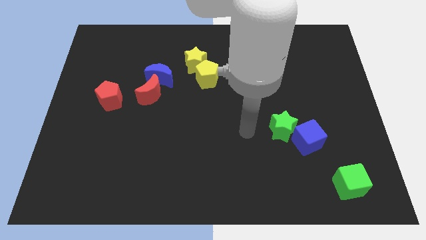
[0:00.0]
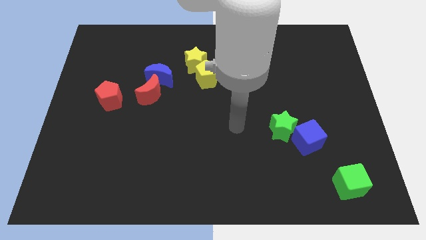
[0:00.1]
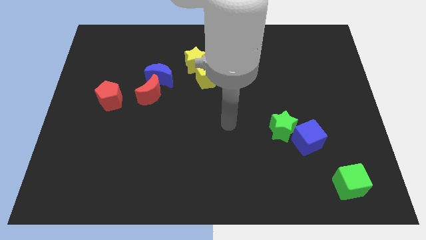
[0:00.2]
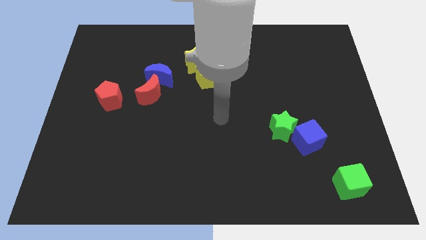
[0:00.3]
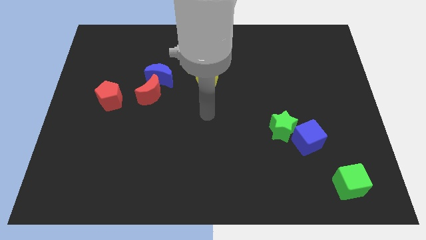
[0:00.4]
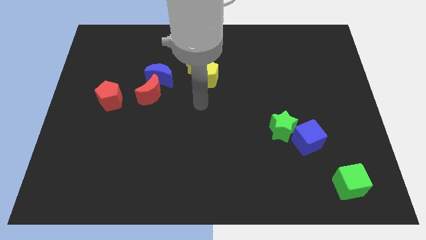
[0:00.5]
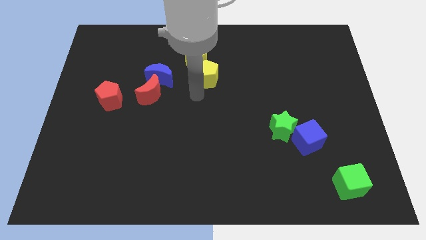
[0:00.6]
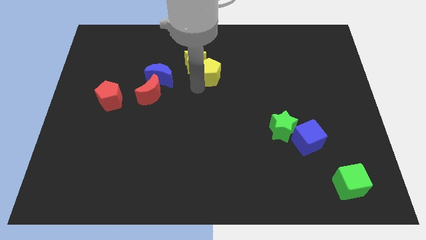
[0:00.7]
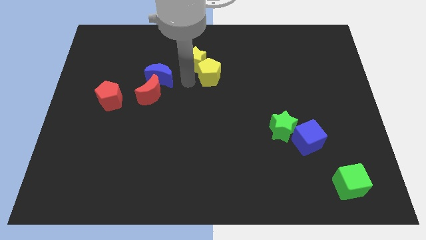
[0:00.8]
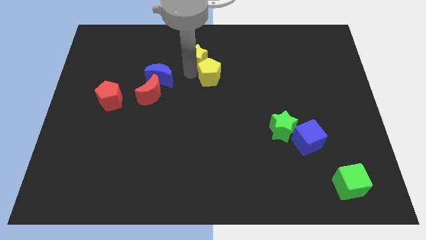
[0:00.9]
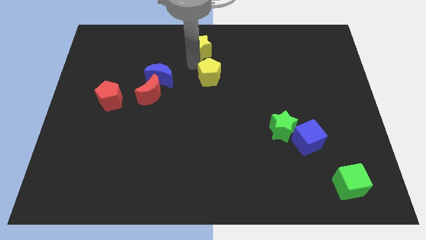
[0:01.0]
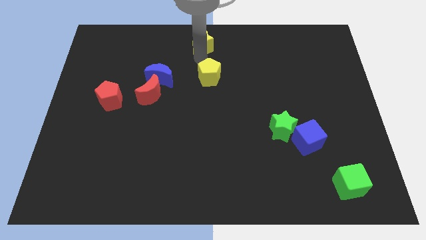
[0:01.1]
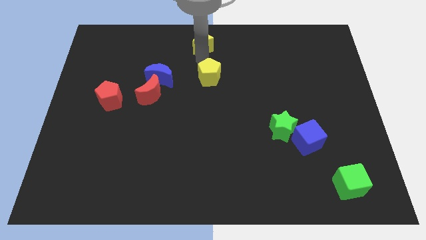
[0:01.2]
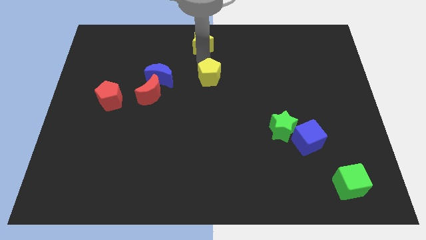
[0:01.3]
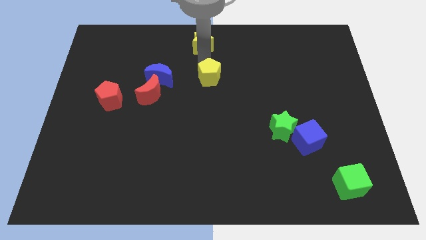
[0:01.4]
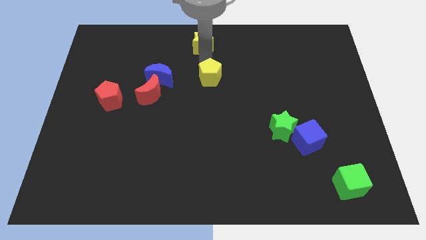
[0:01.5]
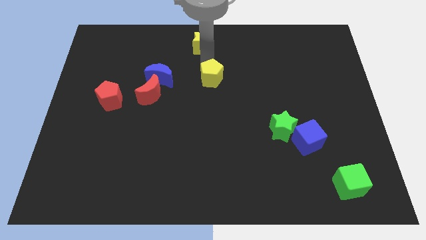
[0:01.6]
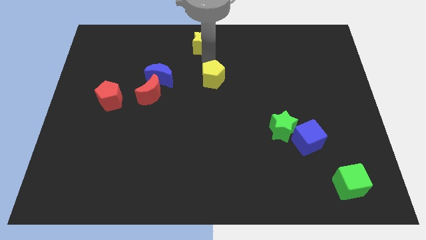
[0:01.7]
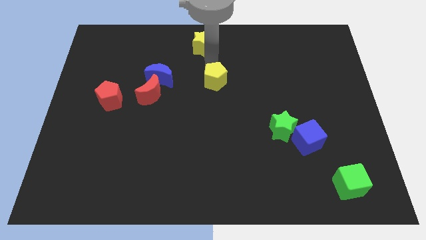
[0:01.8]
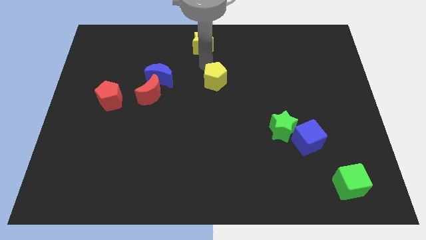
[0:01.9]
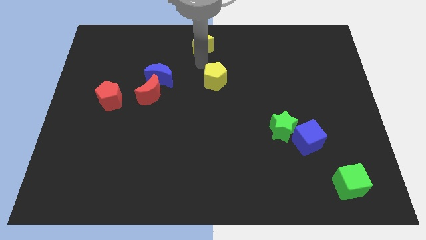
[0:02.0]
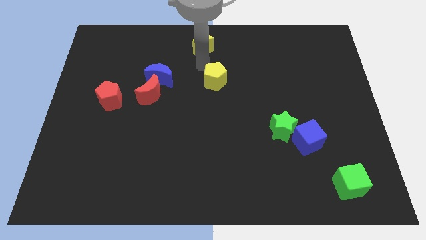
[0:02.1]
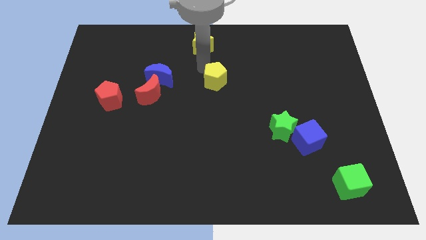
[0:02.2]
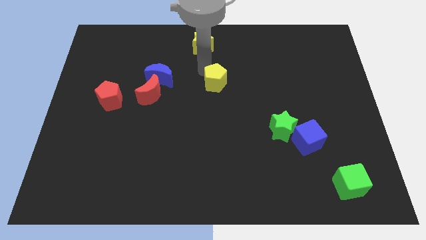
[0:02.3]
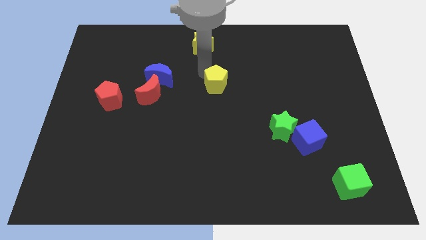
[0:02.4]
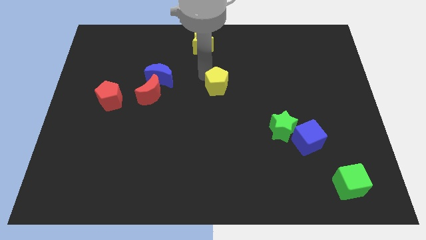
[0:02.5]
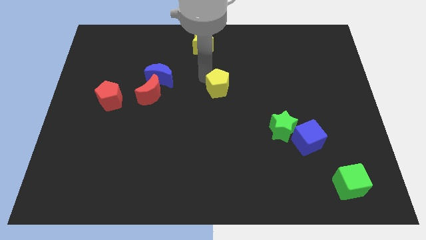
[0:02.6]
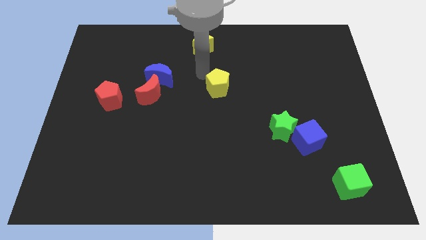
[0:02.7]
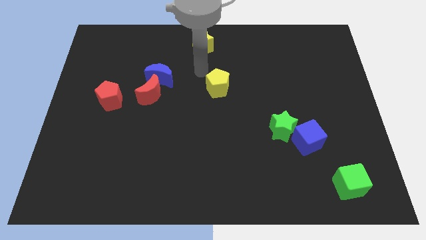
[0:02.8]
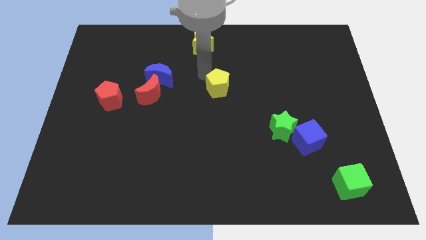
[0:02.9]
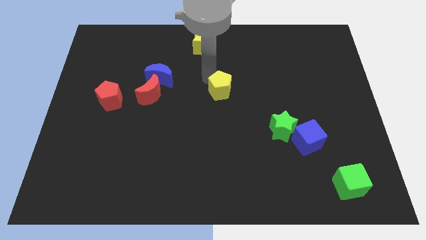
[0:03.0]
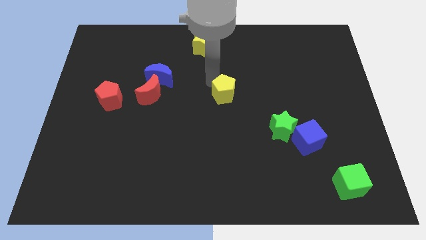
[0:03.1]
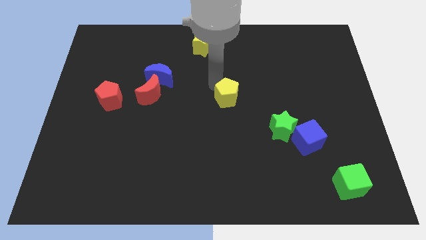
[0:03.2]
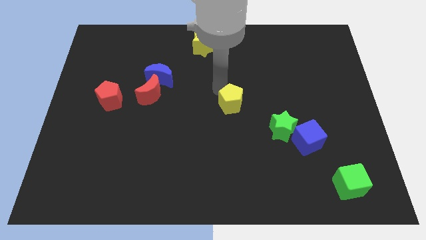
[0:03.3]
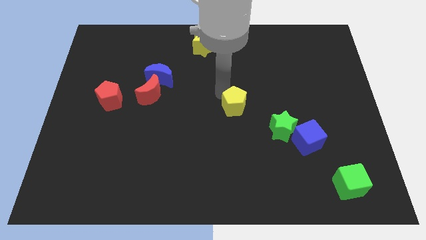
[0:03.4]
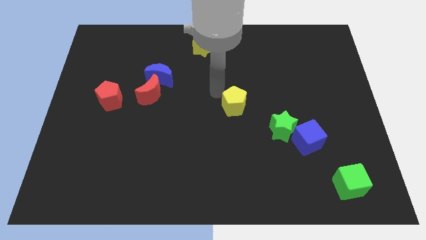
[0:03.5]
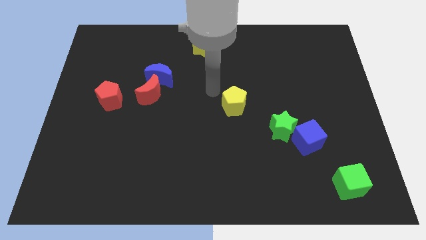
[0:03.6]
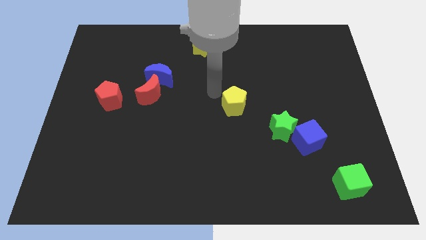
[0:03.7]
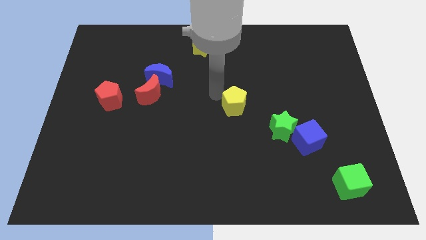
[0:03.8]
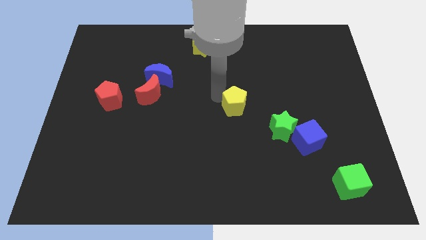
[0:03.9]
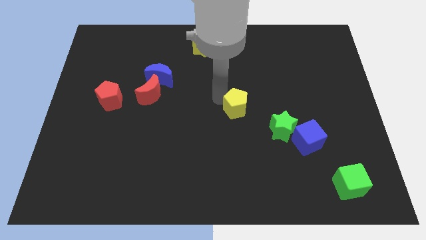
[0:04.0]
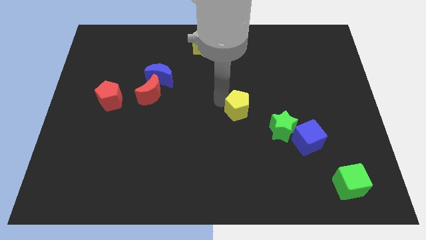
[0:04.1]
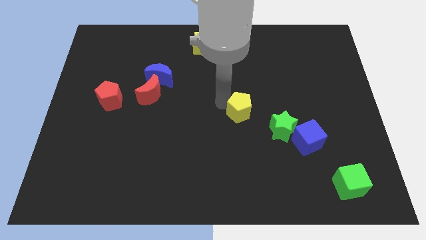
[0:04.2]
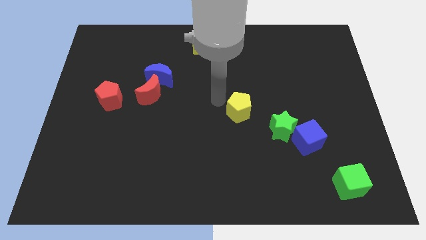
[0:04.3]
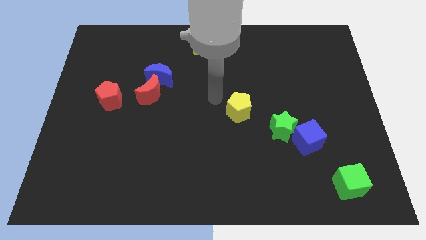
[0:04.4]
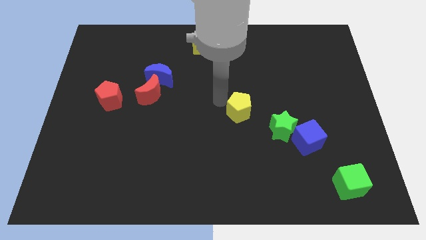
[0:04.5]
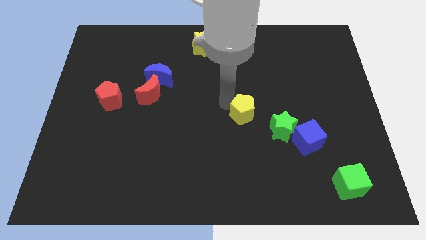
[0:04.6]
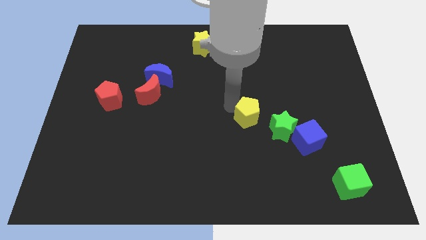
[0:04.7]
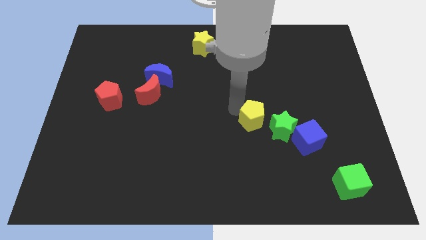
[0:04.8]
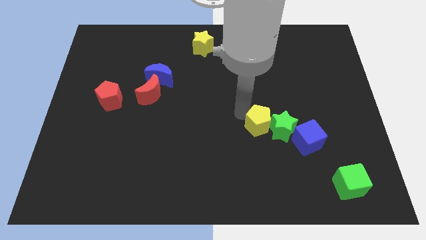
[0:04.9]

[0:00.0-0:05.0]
move the yellow pentagon towards the green star

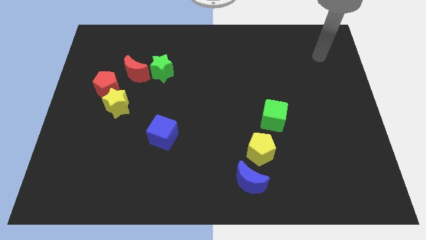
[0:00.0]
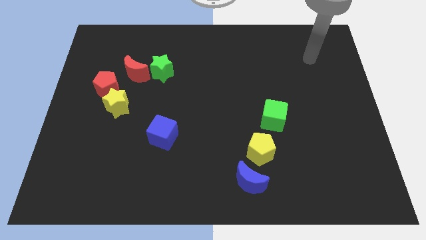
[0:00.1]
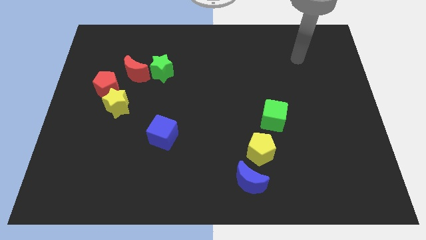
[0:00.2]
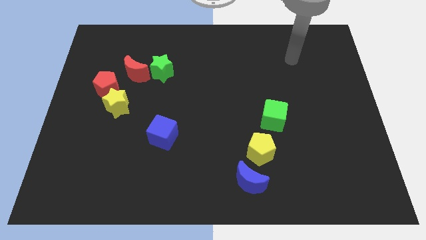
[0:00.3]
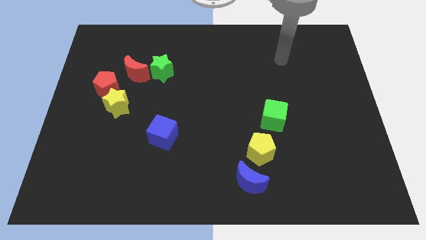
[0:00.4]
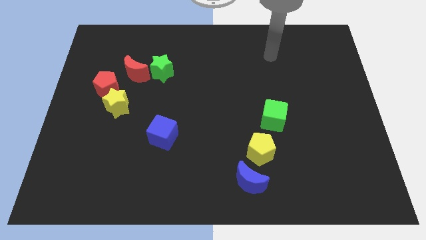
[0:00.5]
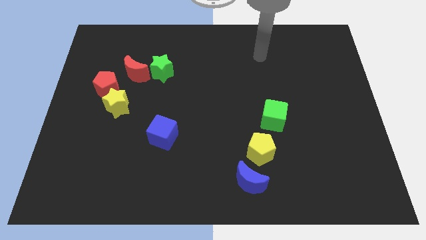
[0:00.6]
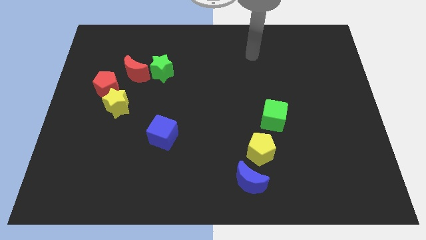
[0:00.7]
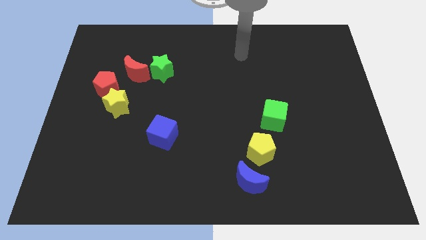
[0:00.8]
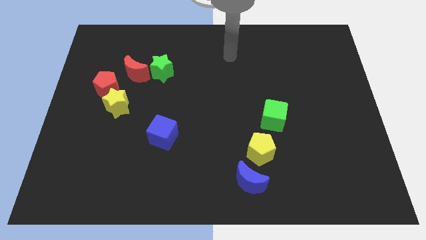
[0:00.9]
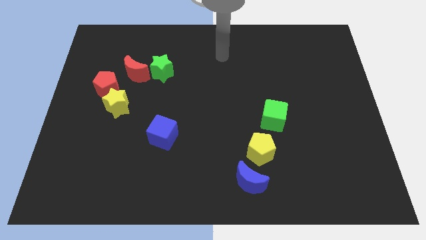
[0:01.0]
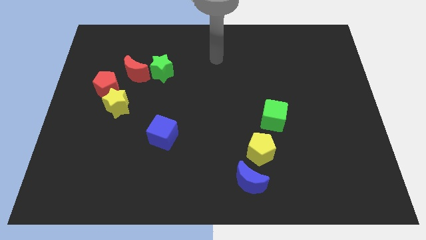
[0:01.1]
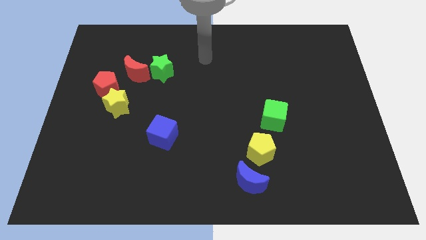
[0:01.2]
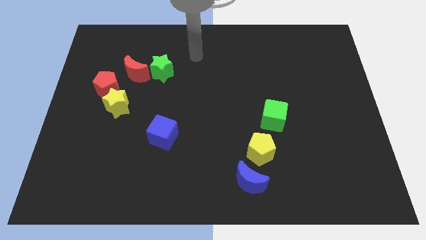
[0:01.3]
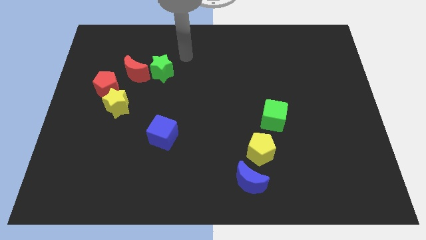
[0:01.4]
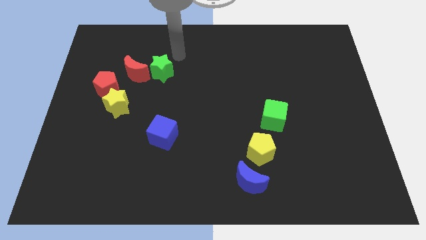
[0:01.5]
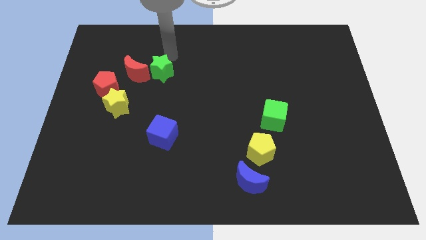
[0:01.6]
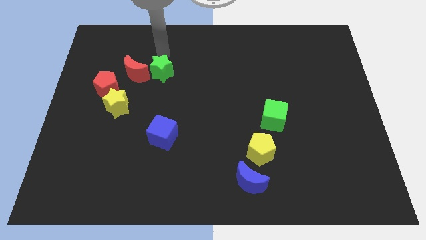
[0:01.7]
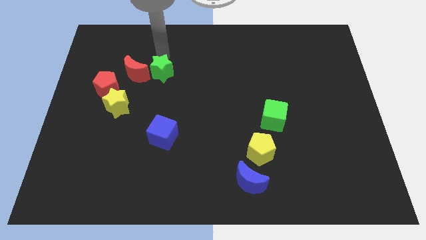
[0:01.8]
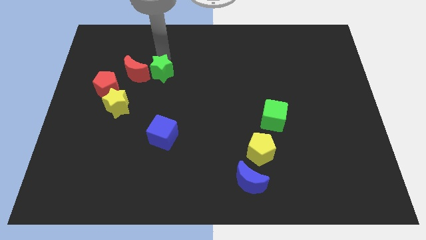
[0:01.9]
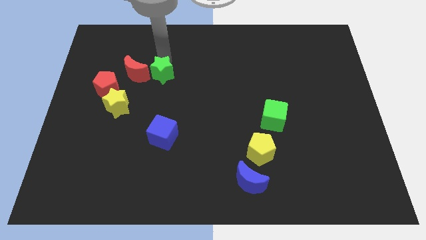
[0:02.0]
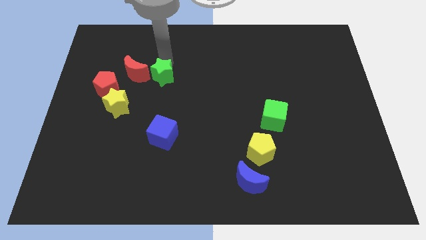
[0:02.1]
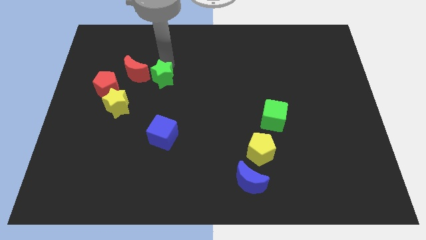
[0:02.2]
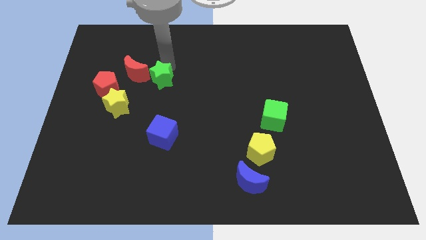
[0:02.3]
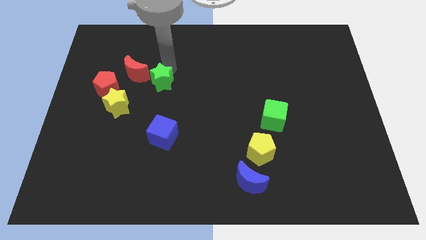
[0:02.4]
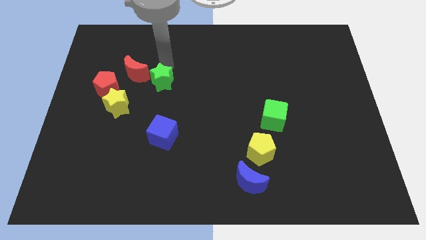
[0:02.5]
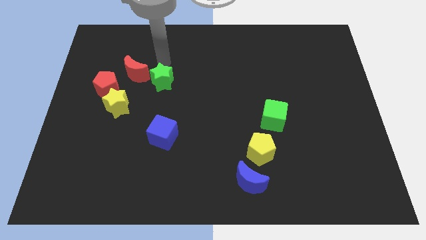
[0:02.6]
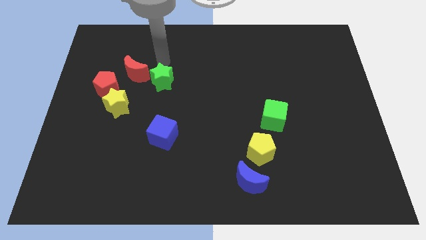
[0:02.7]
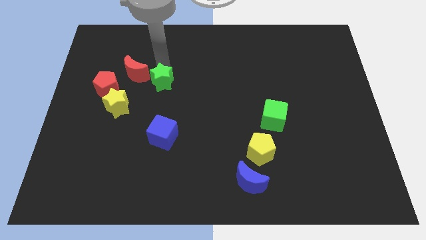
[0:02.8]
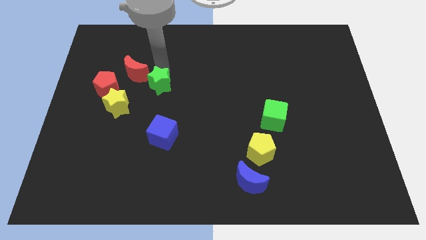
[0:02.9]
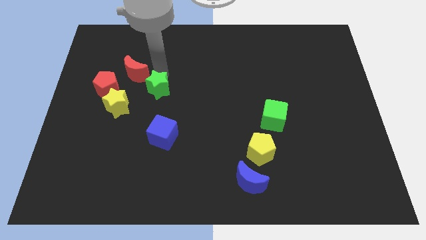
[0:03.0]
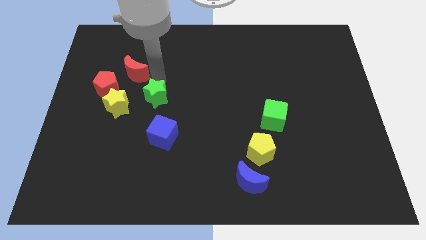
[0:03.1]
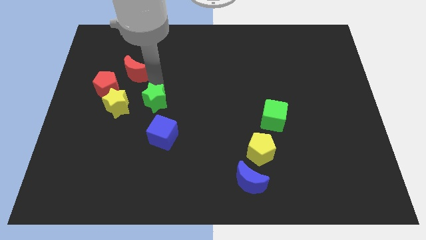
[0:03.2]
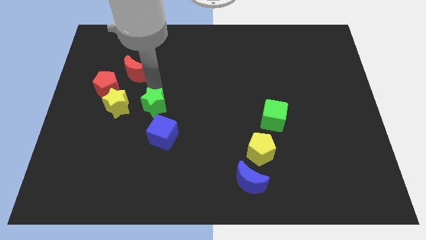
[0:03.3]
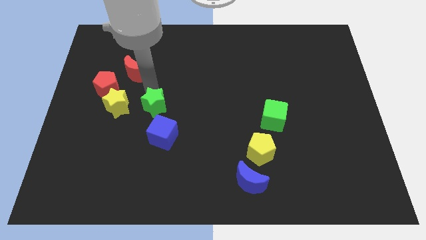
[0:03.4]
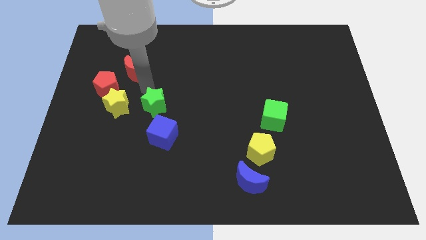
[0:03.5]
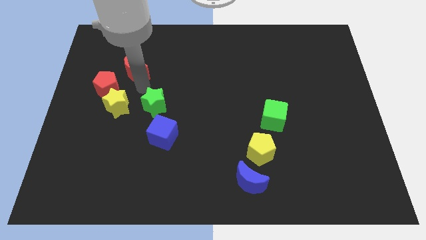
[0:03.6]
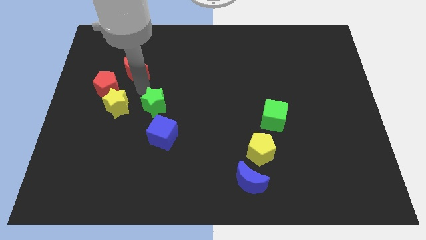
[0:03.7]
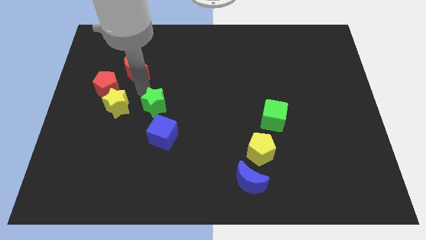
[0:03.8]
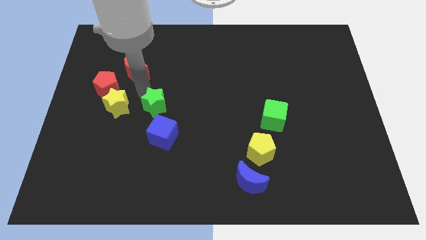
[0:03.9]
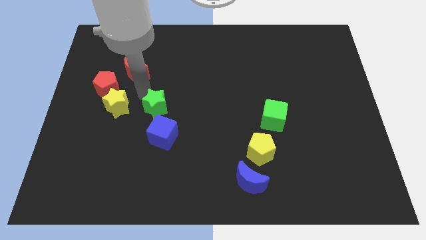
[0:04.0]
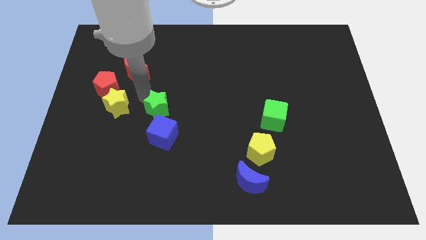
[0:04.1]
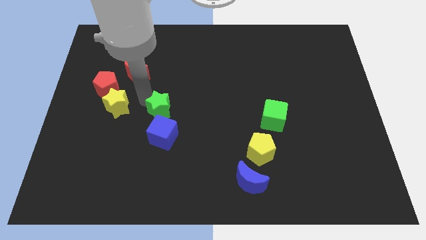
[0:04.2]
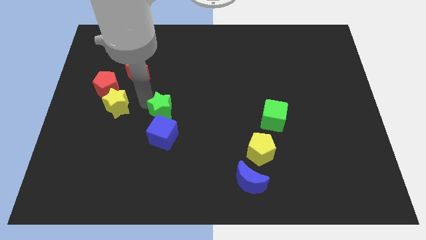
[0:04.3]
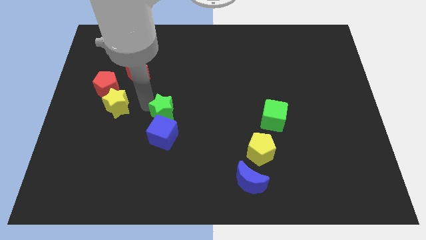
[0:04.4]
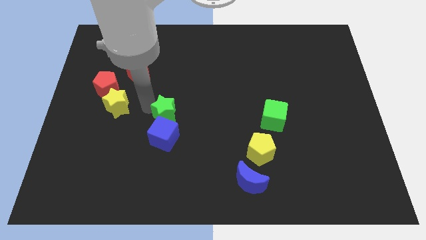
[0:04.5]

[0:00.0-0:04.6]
push the green star to the blue cube
